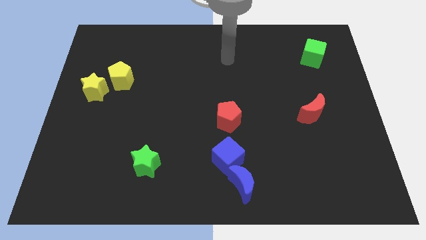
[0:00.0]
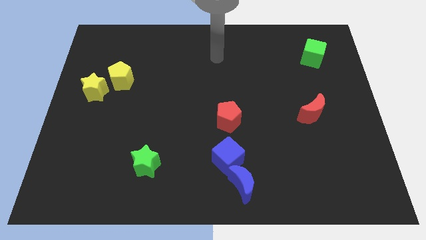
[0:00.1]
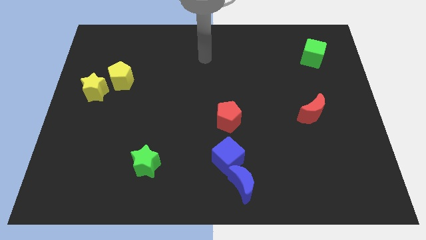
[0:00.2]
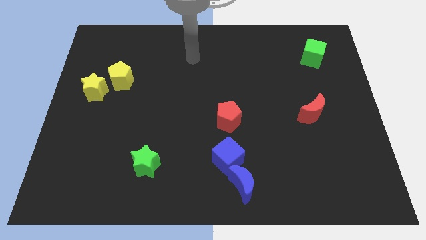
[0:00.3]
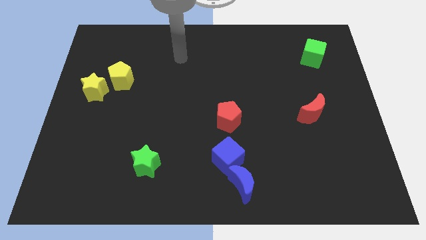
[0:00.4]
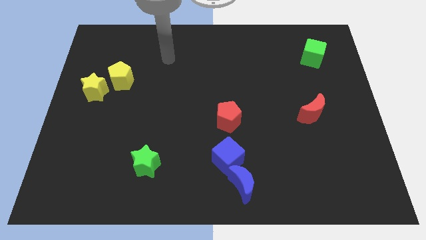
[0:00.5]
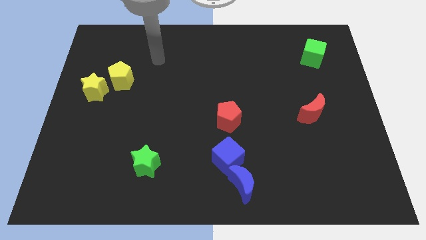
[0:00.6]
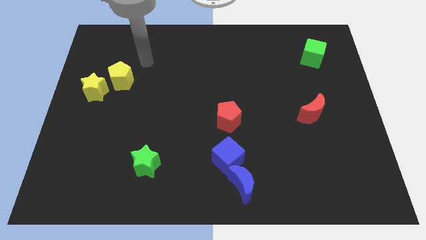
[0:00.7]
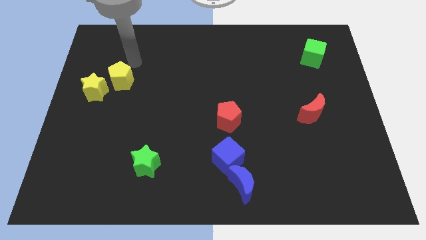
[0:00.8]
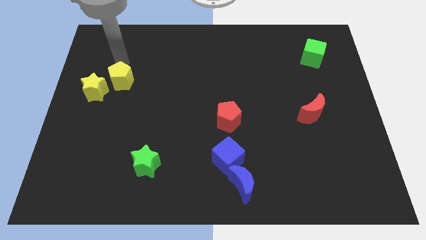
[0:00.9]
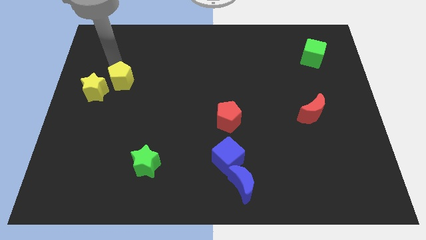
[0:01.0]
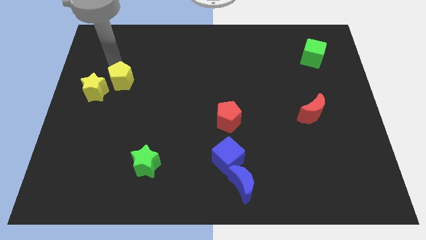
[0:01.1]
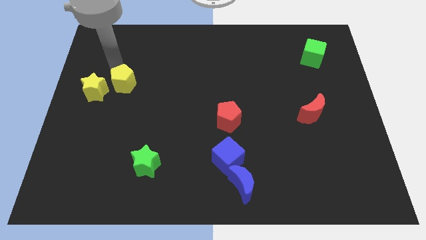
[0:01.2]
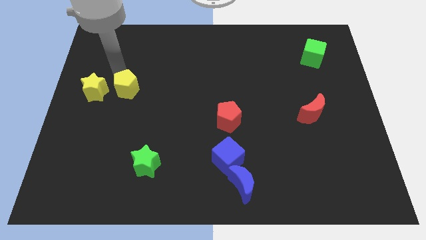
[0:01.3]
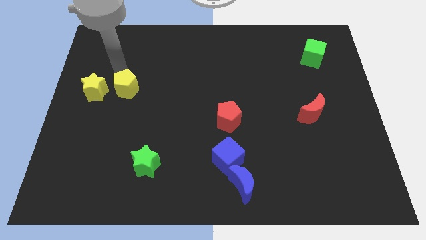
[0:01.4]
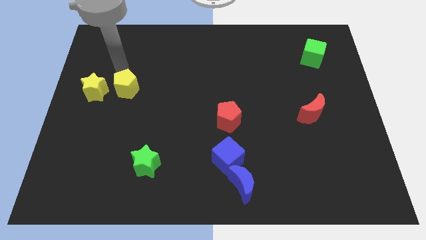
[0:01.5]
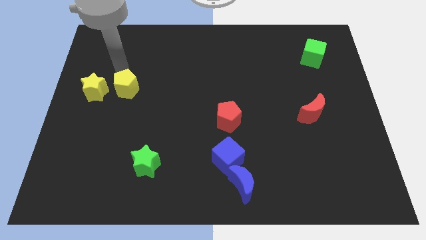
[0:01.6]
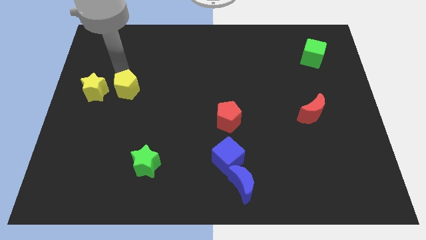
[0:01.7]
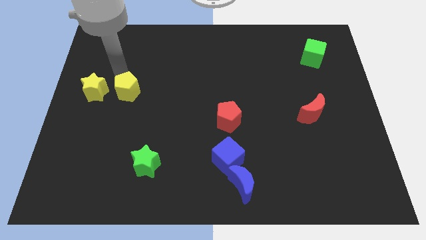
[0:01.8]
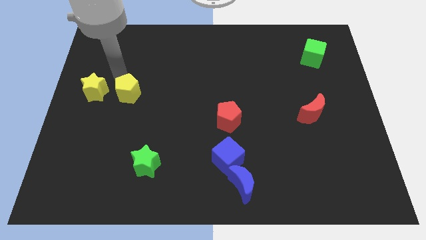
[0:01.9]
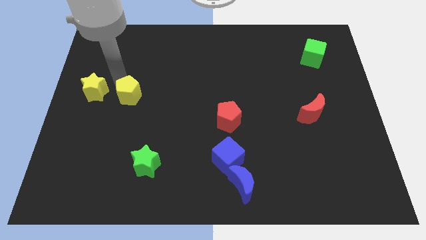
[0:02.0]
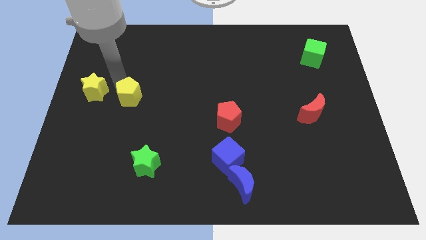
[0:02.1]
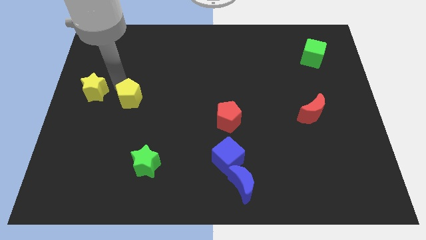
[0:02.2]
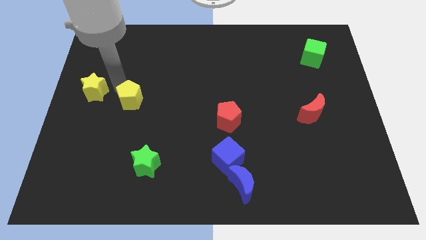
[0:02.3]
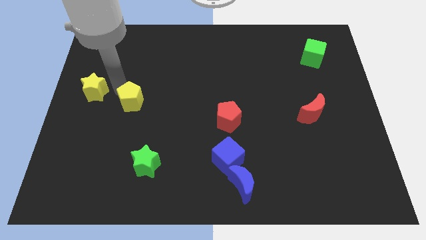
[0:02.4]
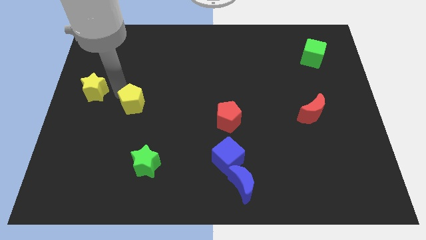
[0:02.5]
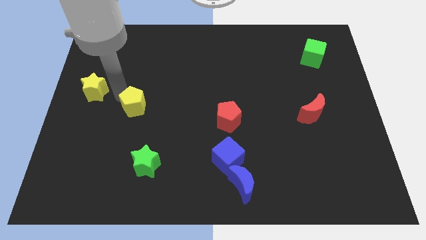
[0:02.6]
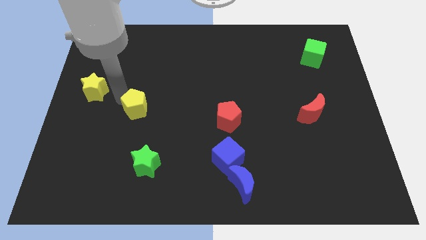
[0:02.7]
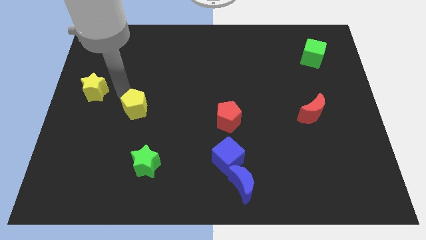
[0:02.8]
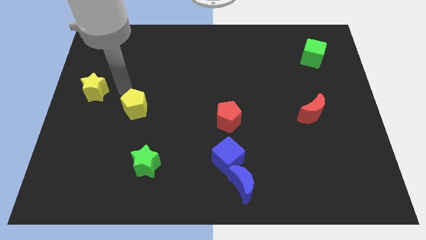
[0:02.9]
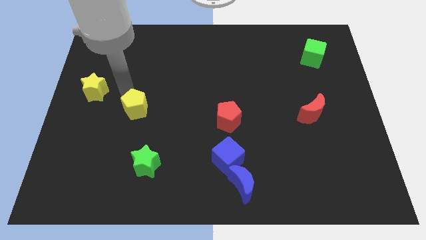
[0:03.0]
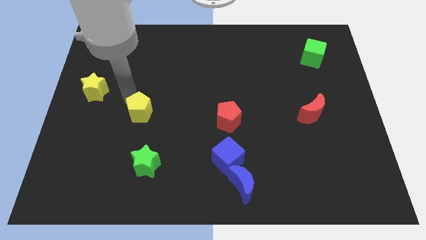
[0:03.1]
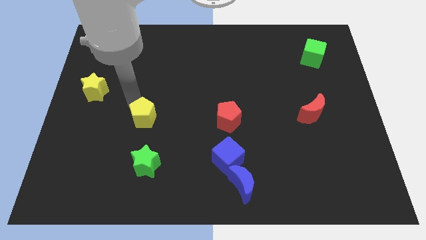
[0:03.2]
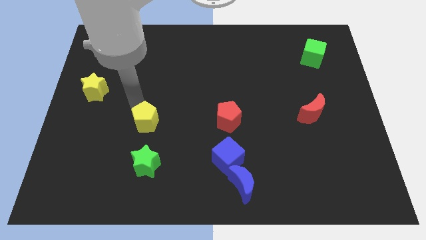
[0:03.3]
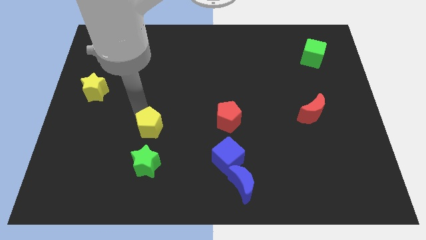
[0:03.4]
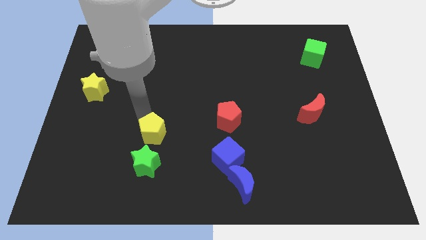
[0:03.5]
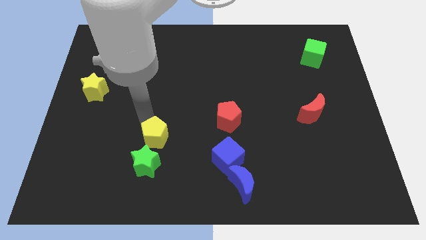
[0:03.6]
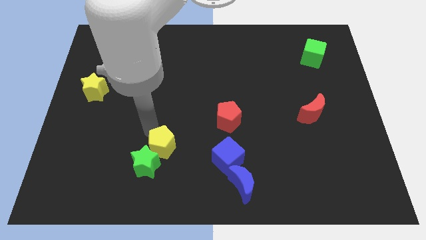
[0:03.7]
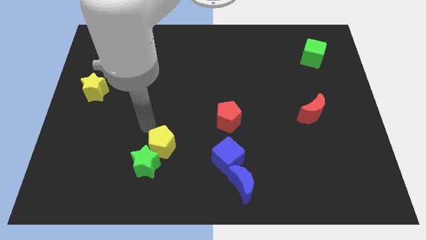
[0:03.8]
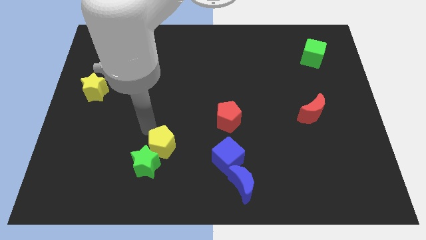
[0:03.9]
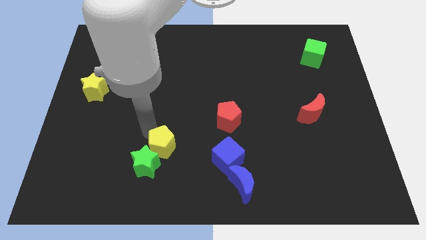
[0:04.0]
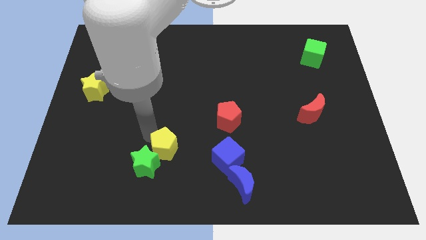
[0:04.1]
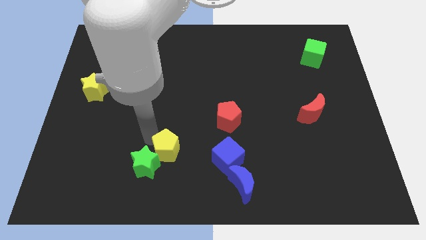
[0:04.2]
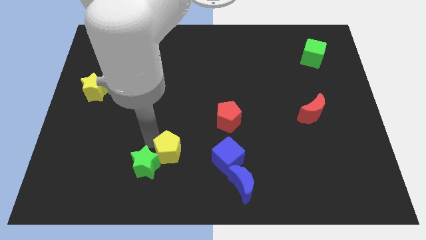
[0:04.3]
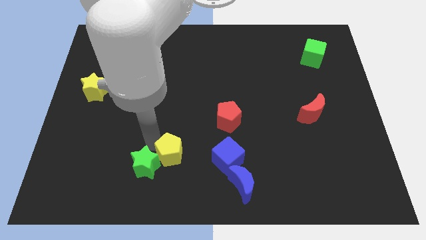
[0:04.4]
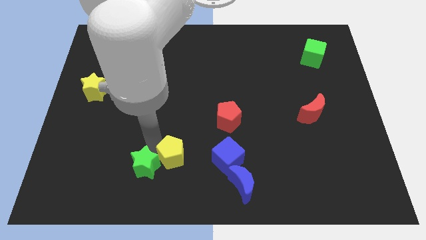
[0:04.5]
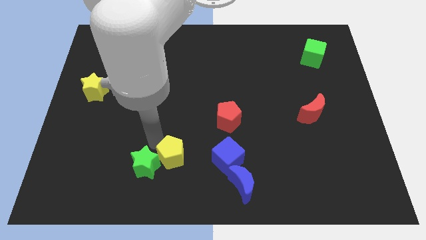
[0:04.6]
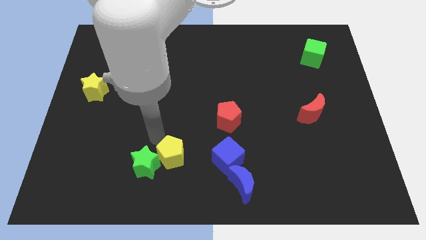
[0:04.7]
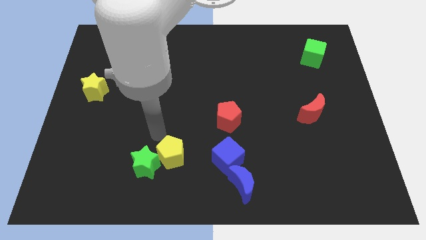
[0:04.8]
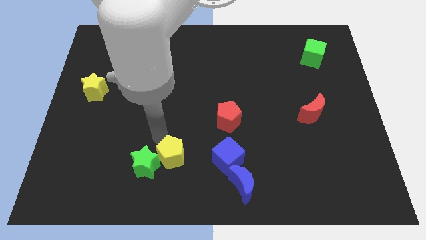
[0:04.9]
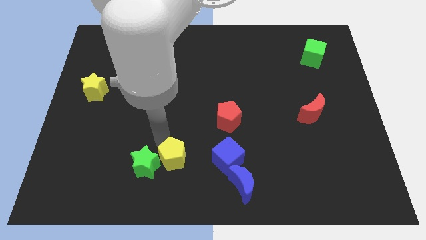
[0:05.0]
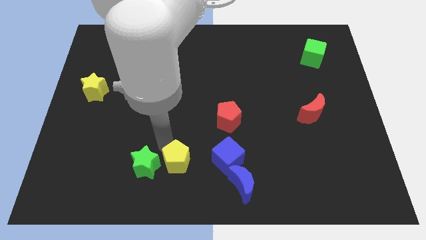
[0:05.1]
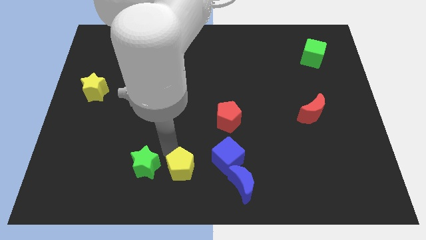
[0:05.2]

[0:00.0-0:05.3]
put the yellow pentagon to the left of the blue moon

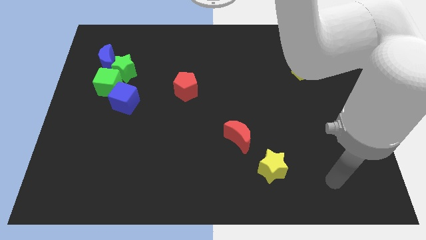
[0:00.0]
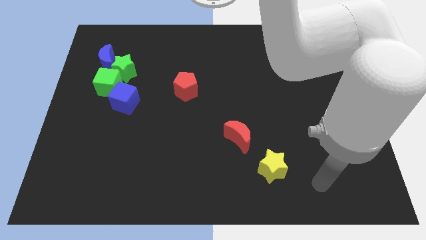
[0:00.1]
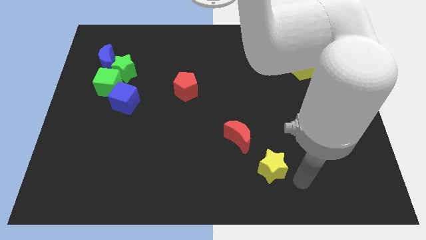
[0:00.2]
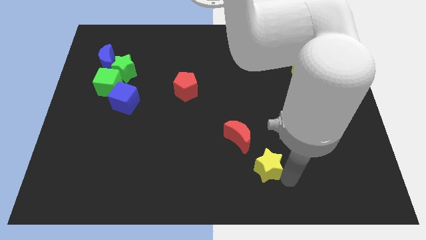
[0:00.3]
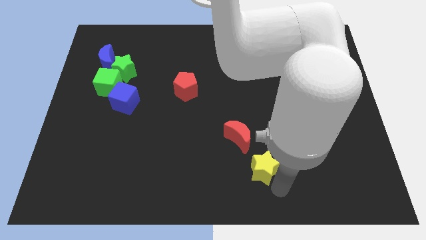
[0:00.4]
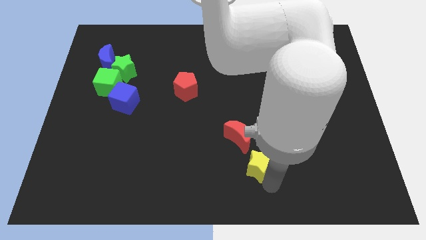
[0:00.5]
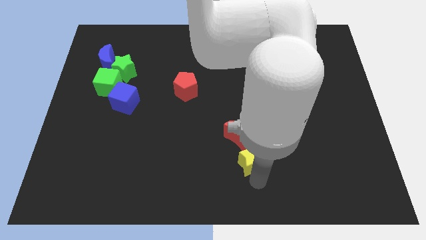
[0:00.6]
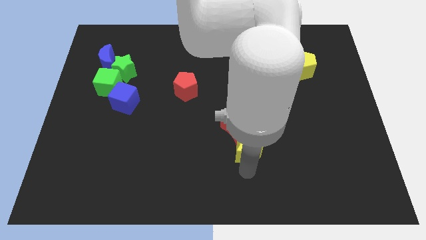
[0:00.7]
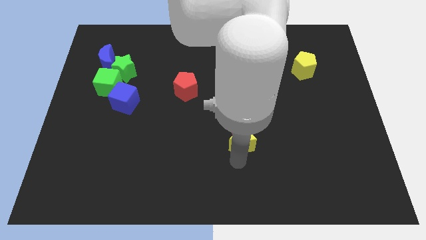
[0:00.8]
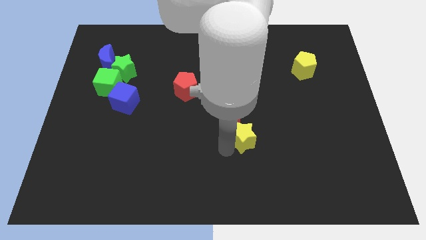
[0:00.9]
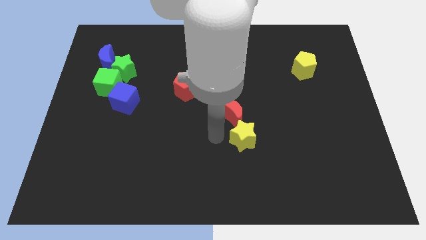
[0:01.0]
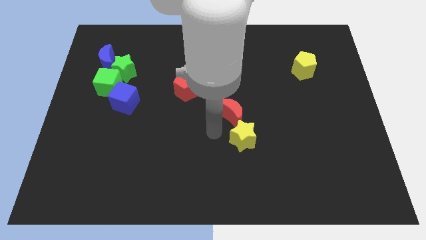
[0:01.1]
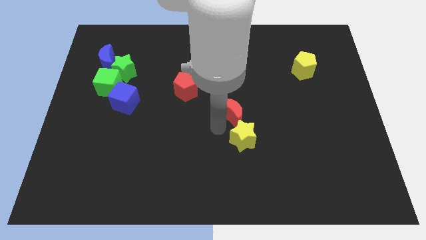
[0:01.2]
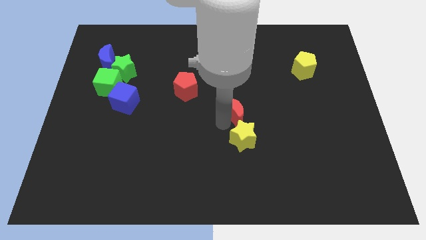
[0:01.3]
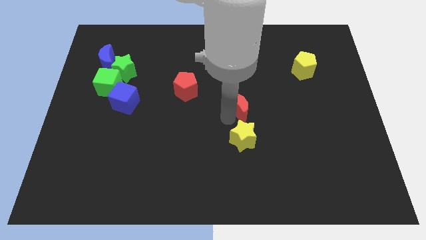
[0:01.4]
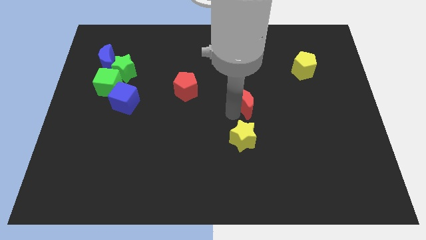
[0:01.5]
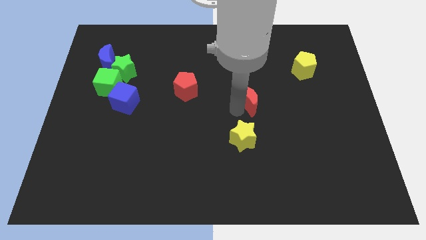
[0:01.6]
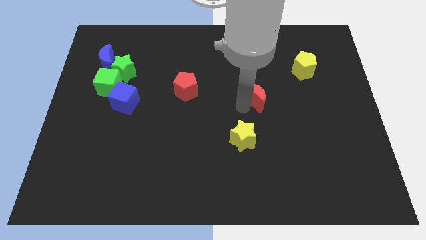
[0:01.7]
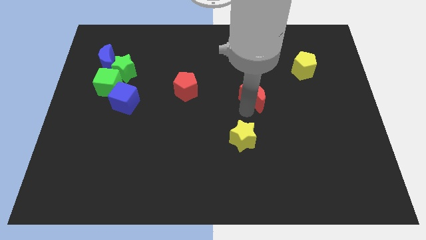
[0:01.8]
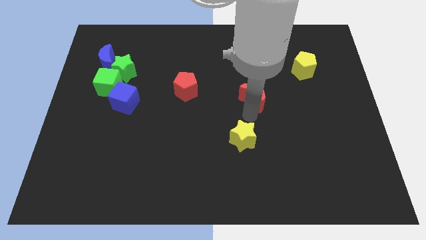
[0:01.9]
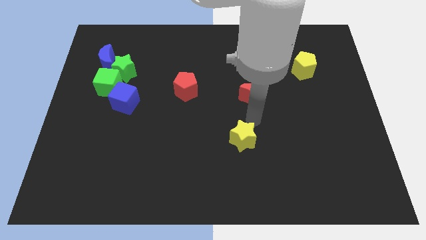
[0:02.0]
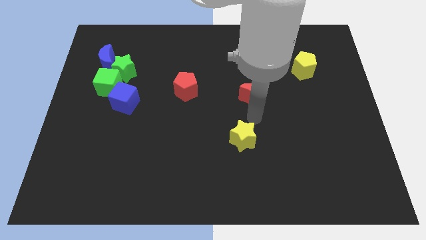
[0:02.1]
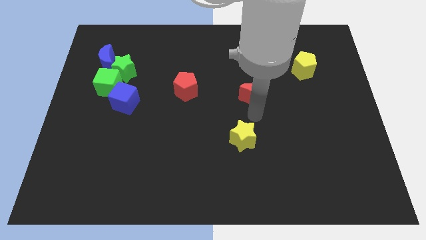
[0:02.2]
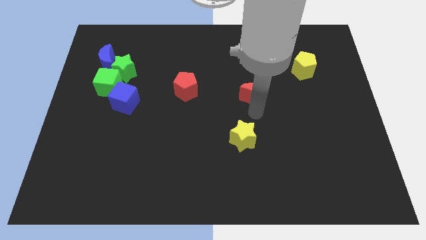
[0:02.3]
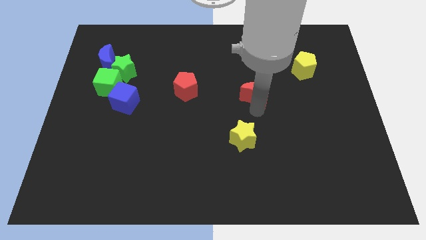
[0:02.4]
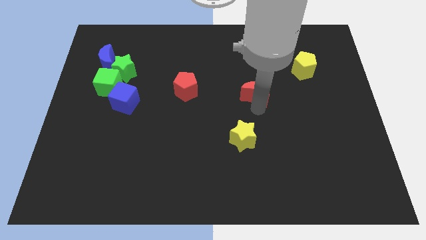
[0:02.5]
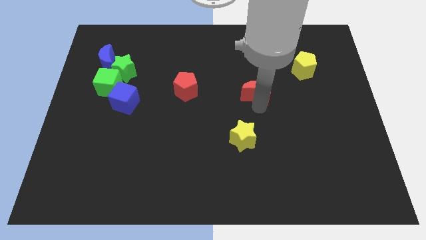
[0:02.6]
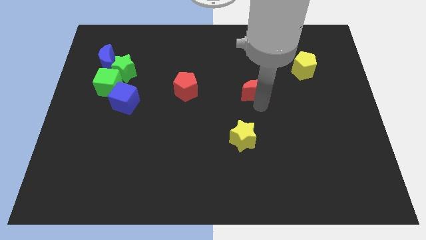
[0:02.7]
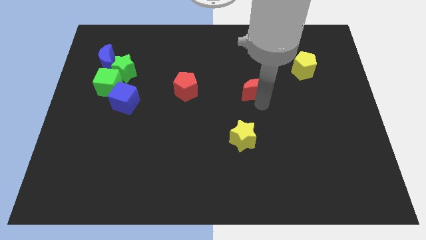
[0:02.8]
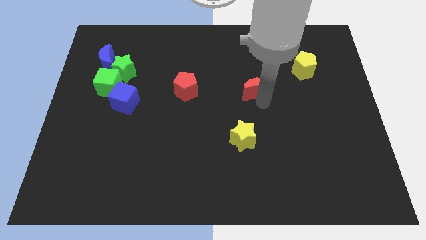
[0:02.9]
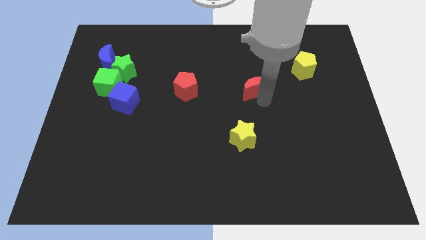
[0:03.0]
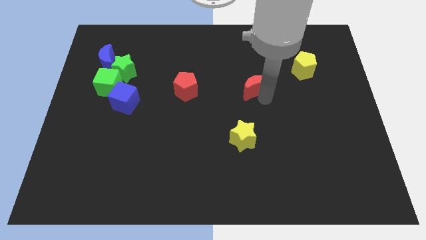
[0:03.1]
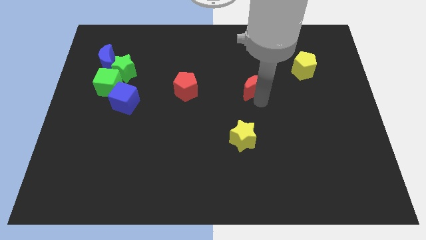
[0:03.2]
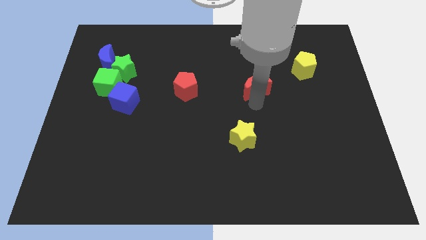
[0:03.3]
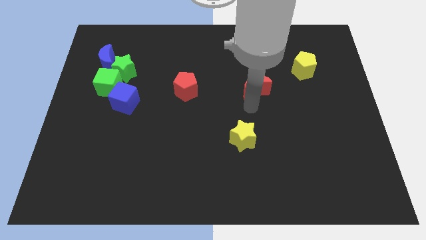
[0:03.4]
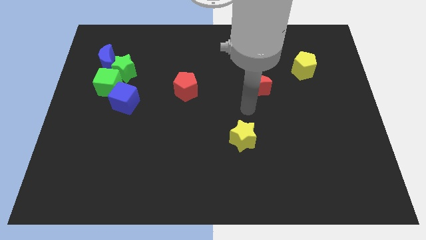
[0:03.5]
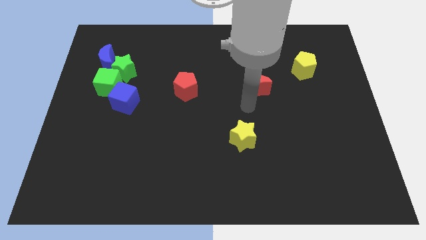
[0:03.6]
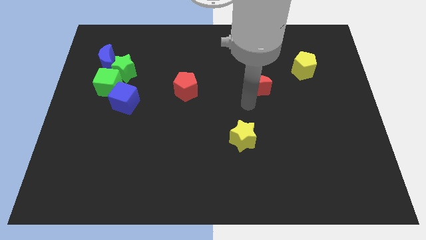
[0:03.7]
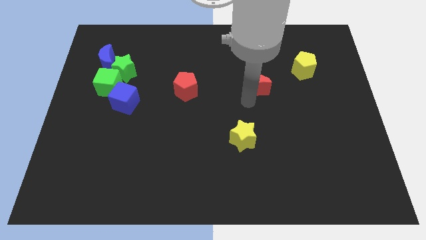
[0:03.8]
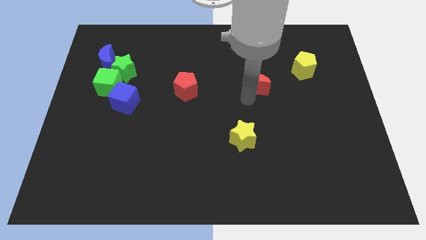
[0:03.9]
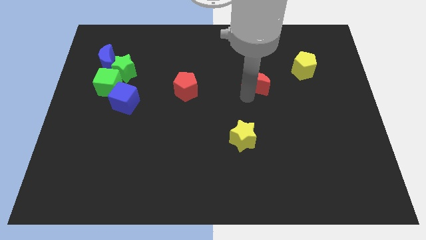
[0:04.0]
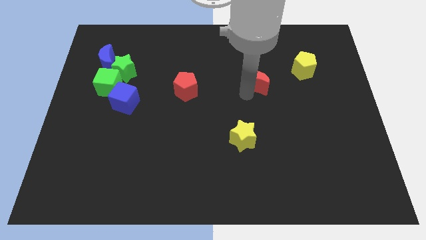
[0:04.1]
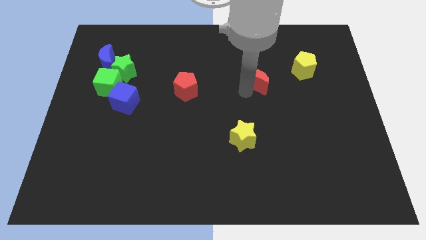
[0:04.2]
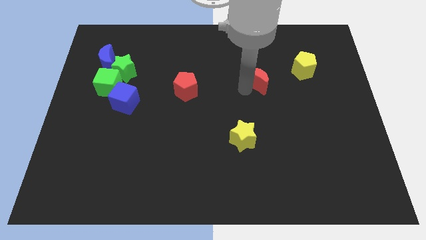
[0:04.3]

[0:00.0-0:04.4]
push the red moon left of the yellow pentagon
